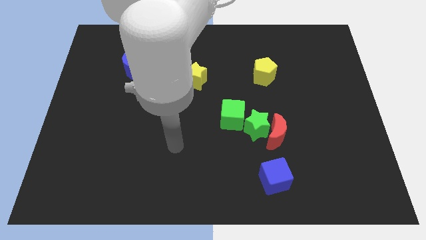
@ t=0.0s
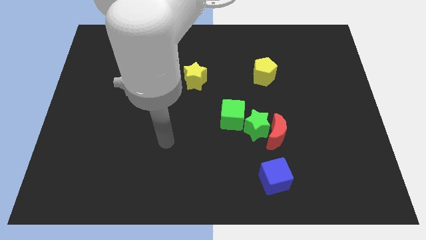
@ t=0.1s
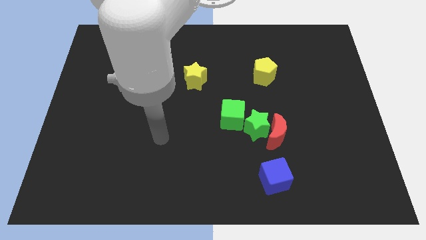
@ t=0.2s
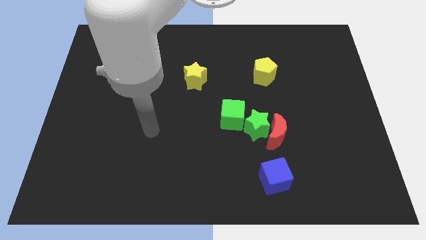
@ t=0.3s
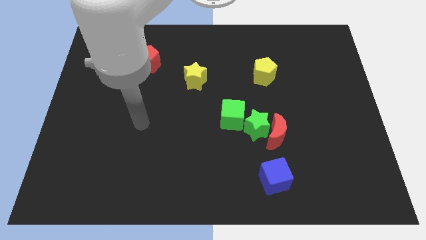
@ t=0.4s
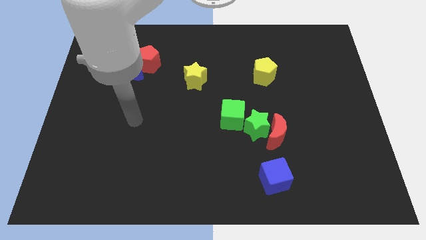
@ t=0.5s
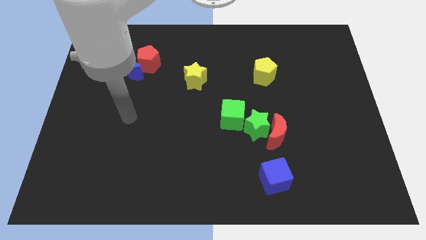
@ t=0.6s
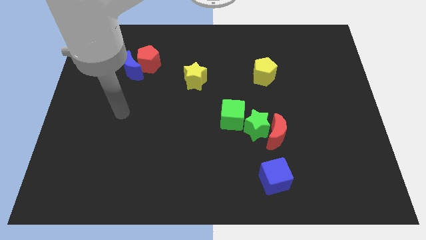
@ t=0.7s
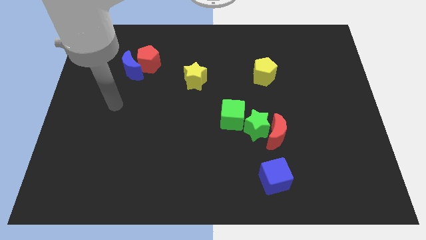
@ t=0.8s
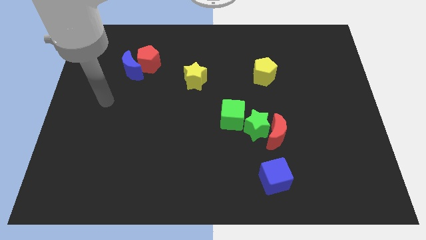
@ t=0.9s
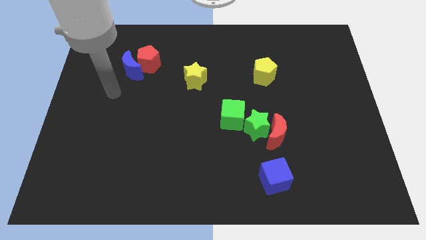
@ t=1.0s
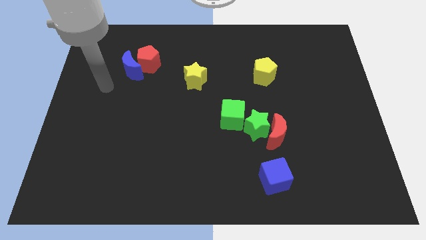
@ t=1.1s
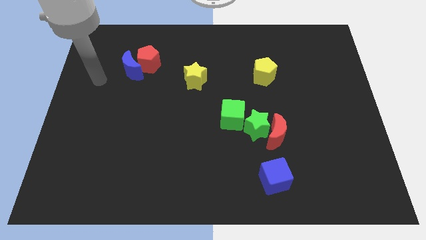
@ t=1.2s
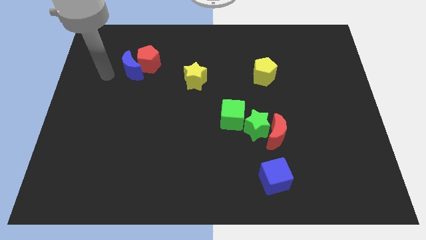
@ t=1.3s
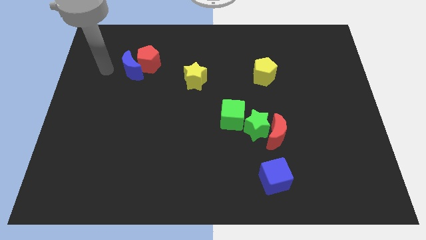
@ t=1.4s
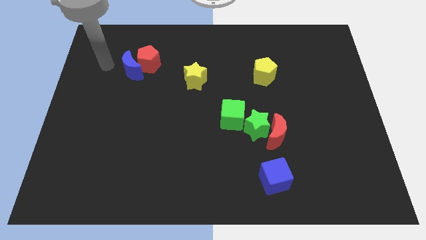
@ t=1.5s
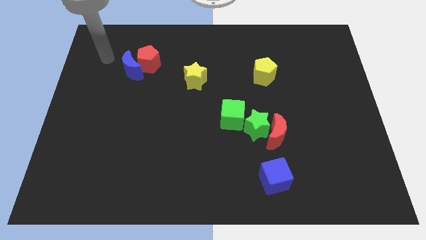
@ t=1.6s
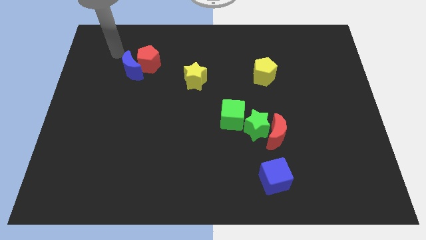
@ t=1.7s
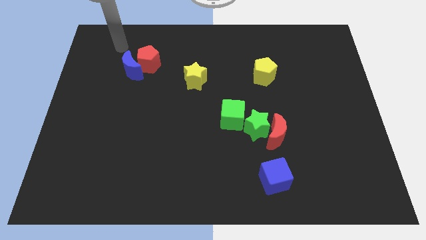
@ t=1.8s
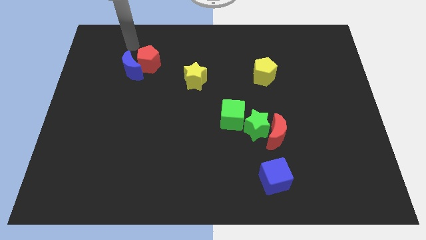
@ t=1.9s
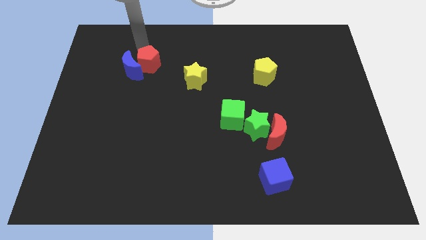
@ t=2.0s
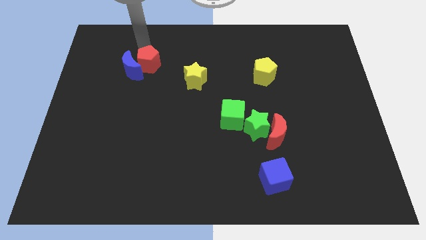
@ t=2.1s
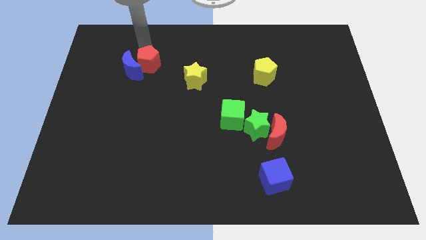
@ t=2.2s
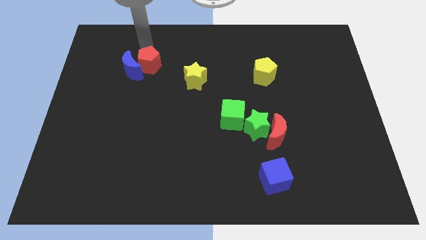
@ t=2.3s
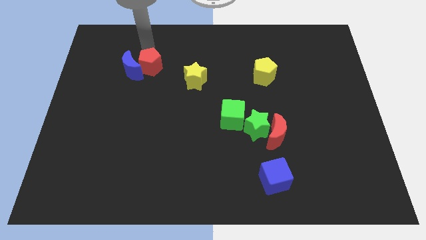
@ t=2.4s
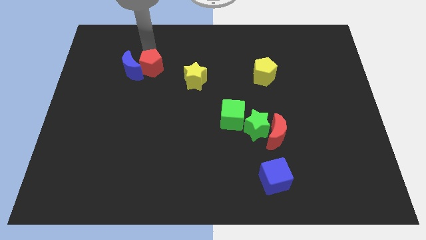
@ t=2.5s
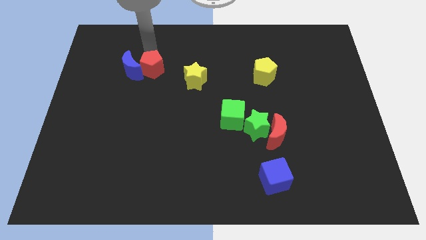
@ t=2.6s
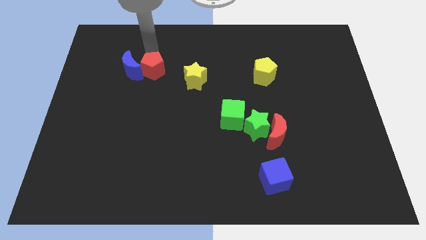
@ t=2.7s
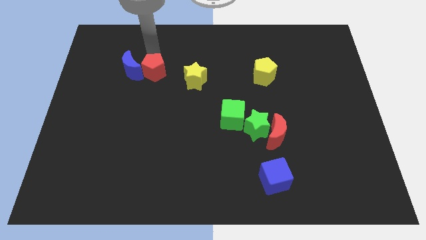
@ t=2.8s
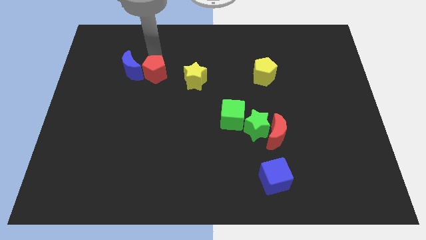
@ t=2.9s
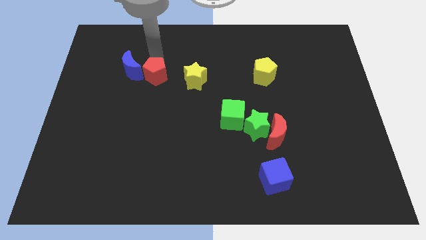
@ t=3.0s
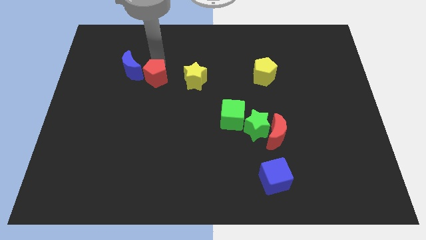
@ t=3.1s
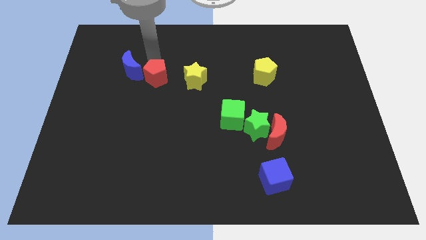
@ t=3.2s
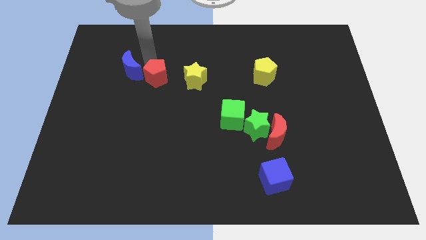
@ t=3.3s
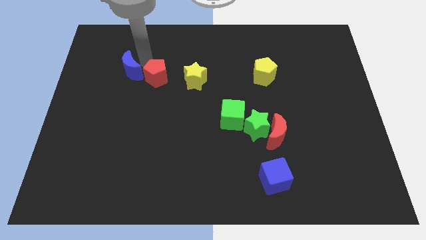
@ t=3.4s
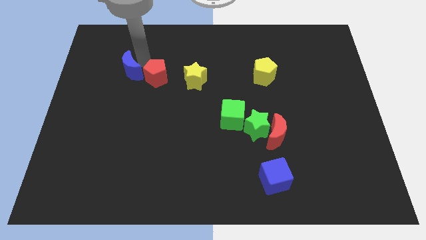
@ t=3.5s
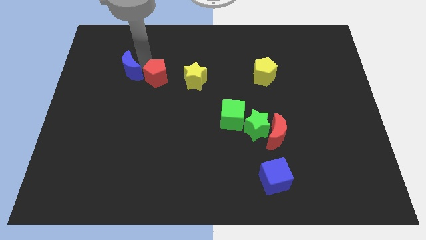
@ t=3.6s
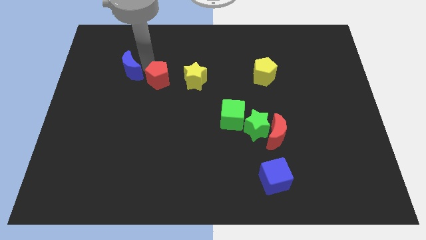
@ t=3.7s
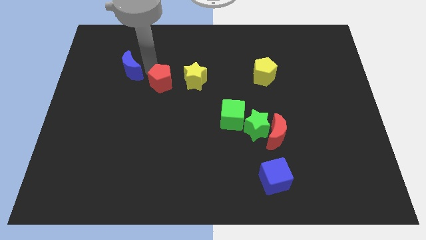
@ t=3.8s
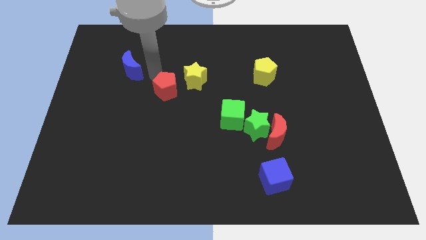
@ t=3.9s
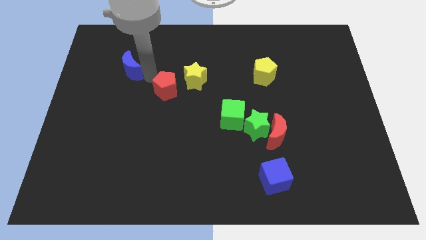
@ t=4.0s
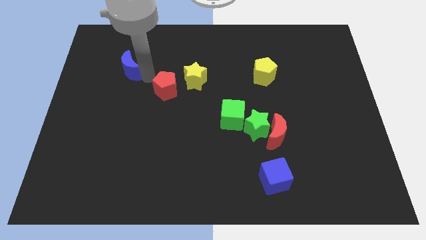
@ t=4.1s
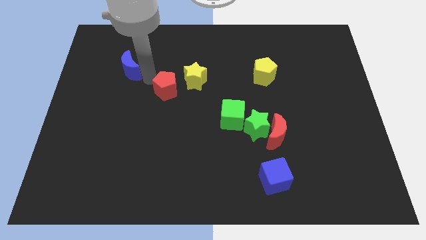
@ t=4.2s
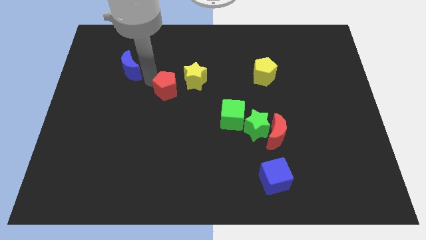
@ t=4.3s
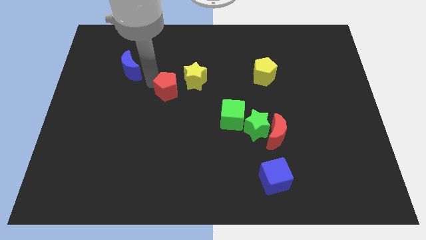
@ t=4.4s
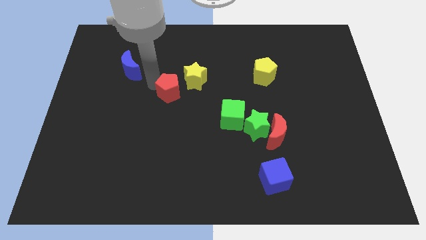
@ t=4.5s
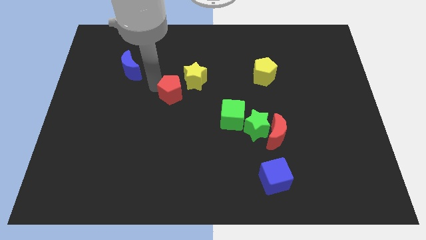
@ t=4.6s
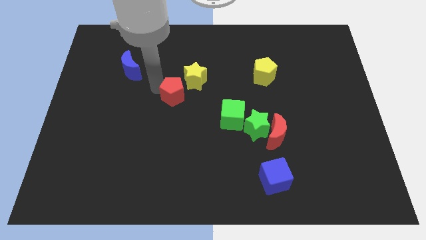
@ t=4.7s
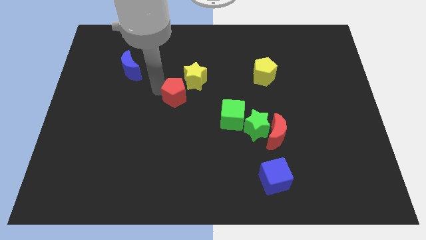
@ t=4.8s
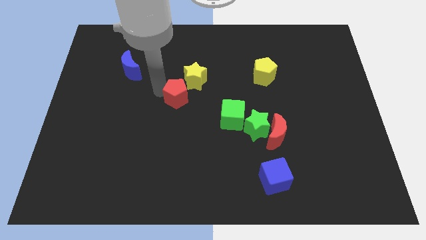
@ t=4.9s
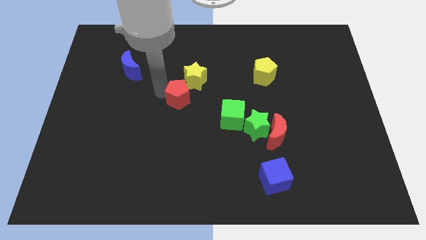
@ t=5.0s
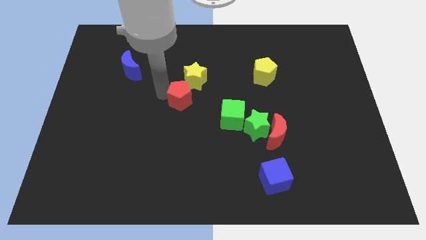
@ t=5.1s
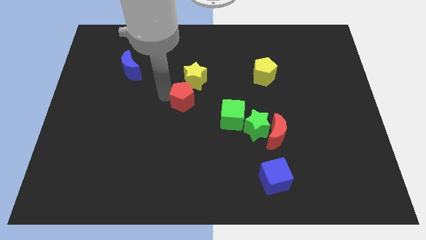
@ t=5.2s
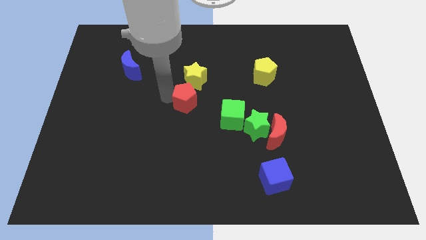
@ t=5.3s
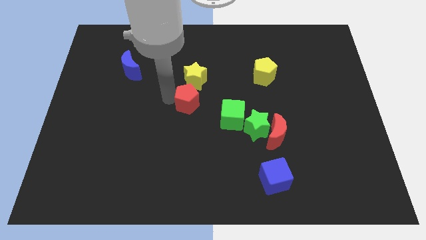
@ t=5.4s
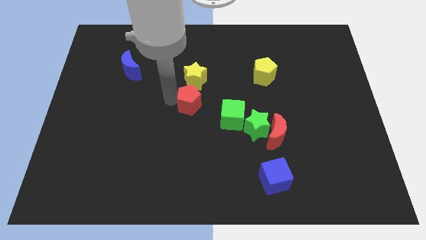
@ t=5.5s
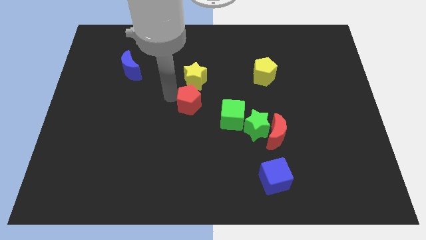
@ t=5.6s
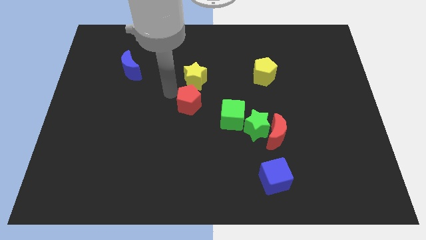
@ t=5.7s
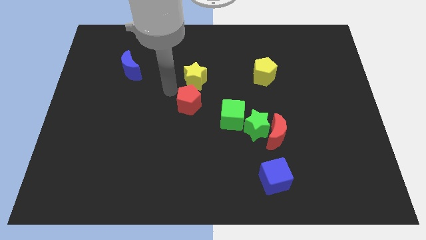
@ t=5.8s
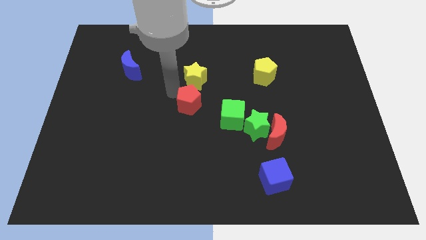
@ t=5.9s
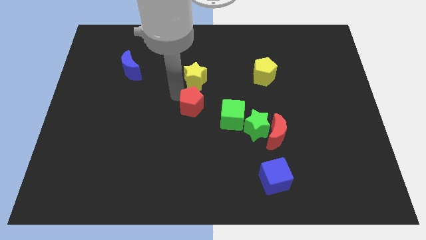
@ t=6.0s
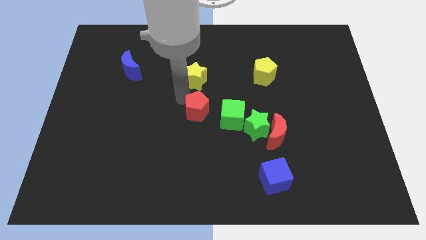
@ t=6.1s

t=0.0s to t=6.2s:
move the red pentagon down and right

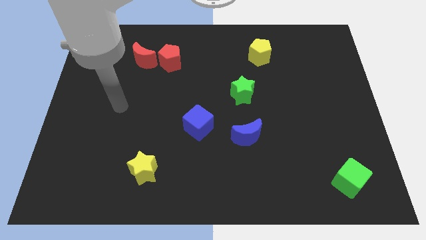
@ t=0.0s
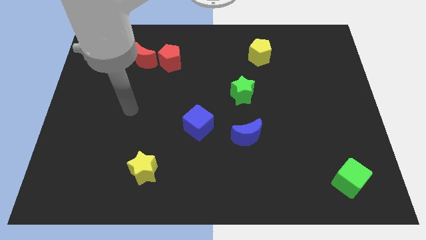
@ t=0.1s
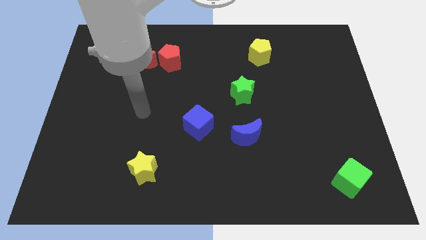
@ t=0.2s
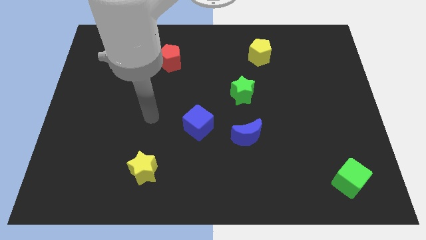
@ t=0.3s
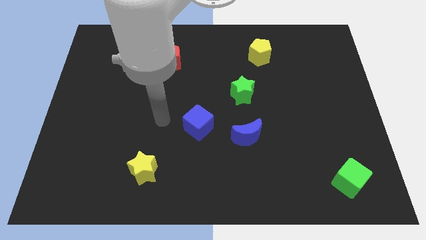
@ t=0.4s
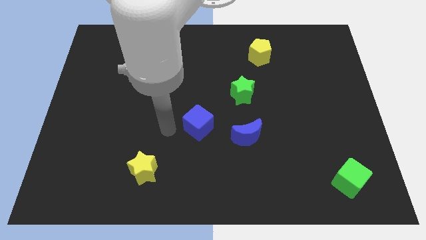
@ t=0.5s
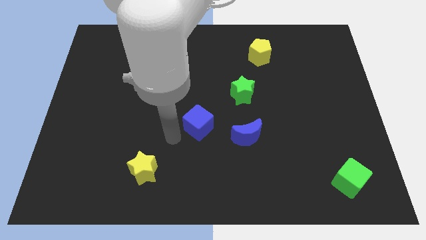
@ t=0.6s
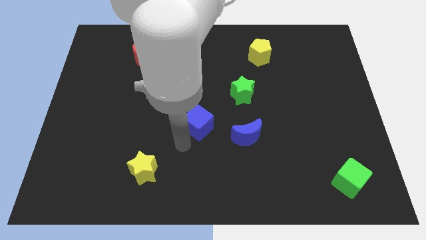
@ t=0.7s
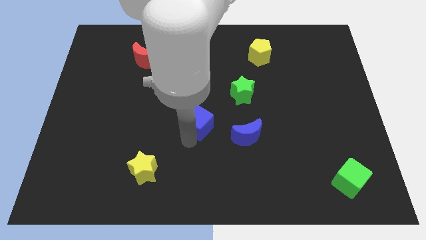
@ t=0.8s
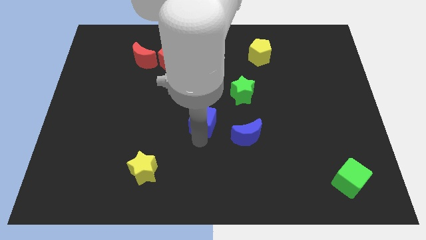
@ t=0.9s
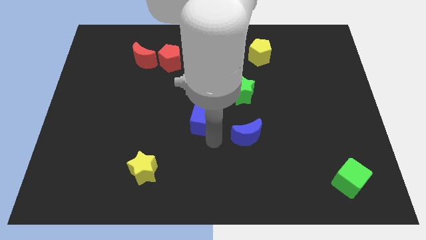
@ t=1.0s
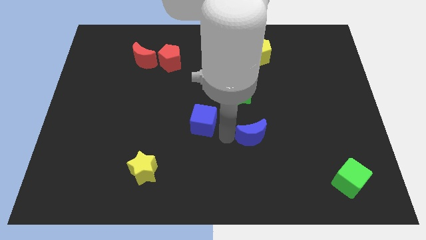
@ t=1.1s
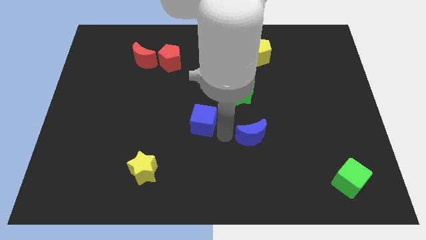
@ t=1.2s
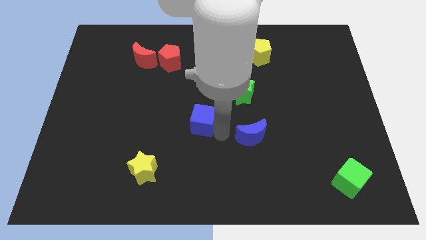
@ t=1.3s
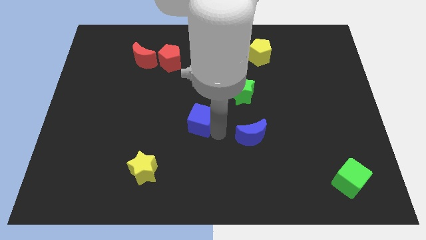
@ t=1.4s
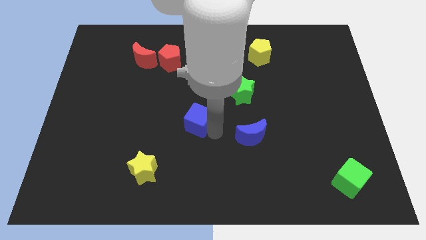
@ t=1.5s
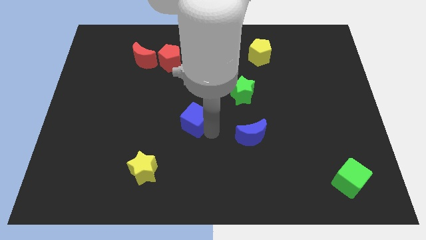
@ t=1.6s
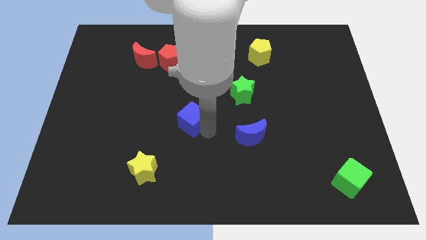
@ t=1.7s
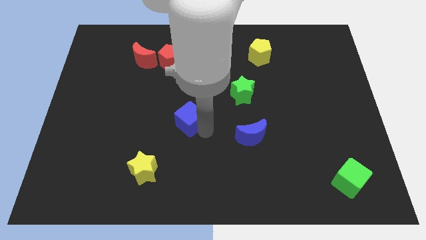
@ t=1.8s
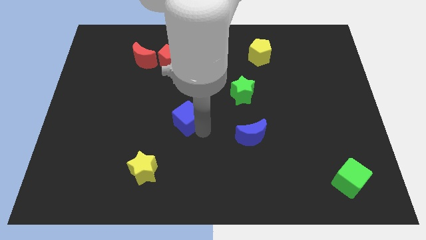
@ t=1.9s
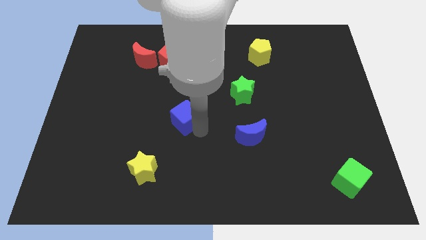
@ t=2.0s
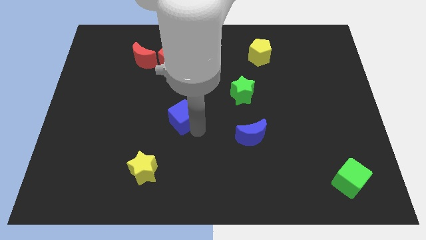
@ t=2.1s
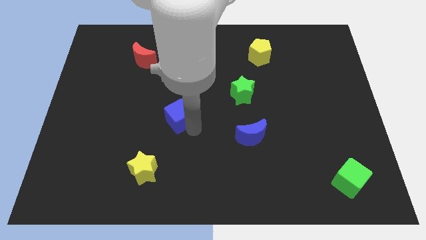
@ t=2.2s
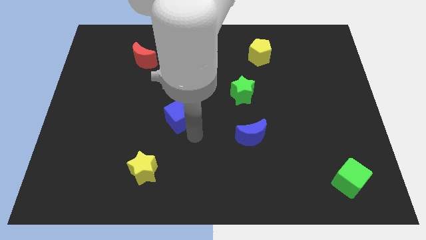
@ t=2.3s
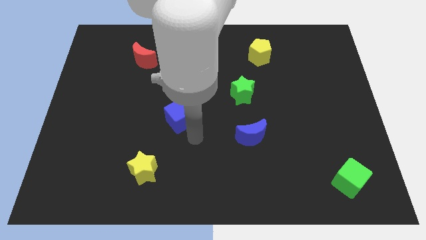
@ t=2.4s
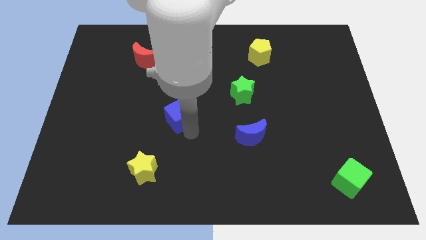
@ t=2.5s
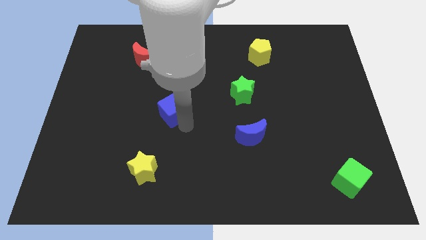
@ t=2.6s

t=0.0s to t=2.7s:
slightly push the blue cube upwards and to the left diagonally
